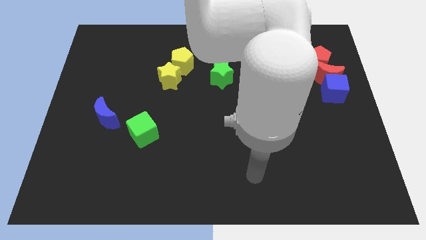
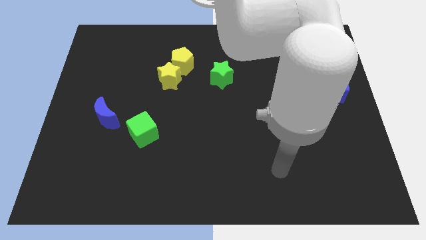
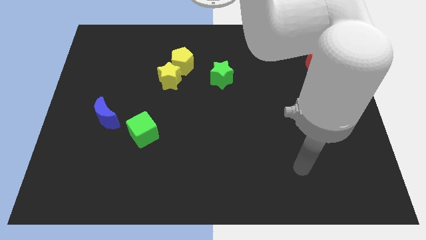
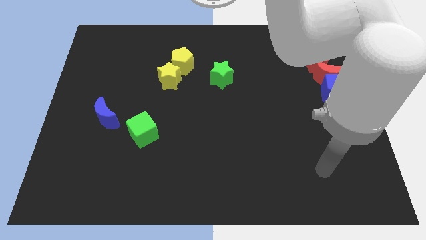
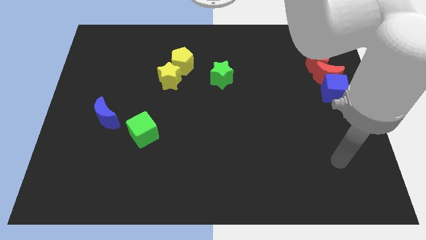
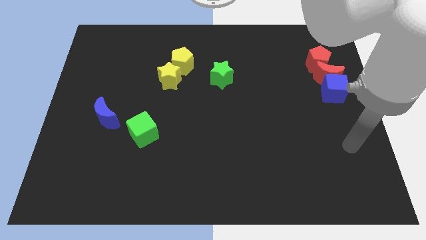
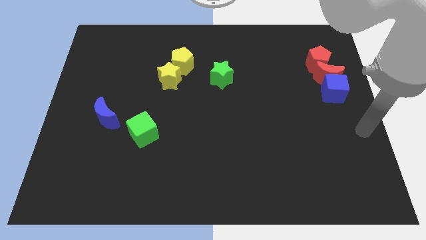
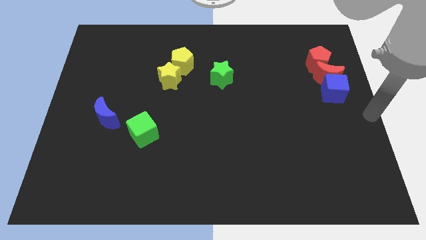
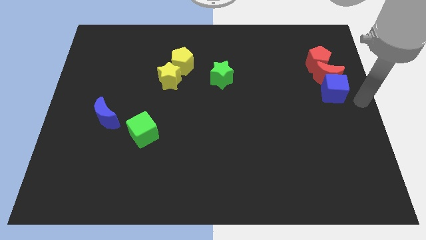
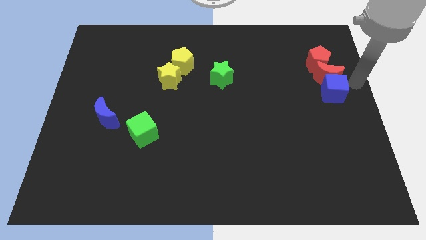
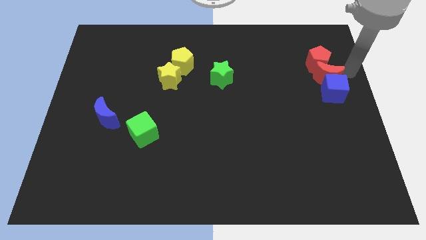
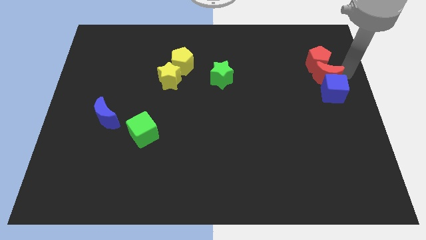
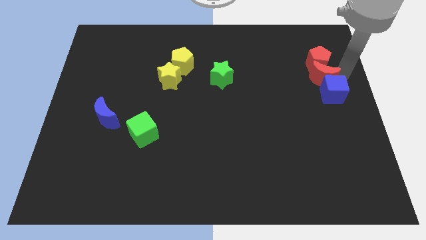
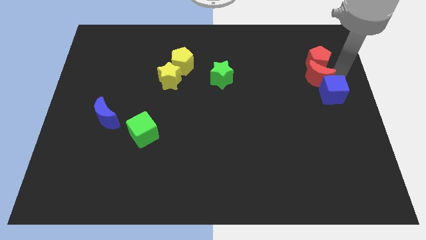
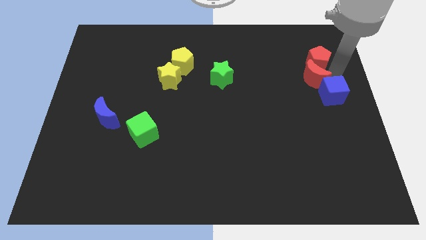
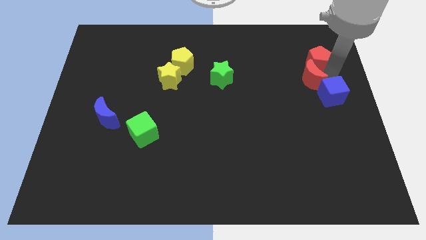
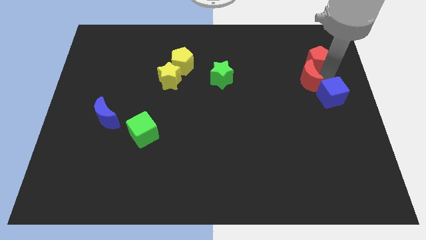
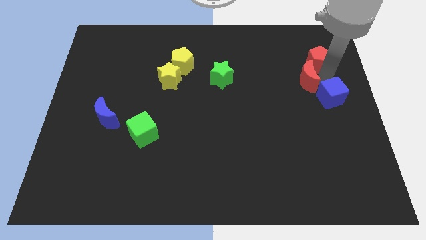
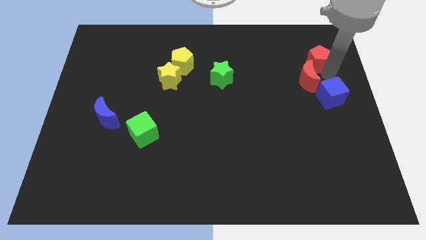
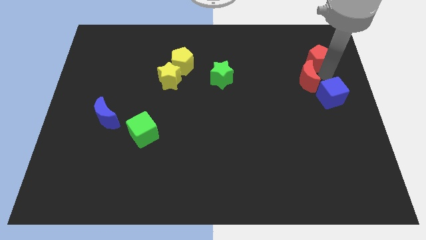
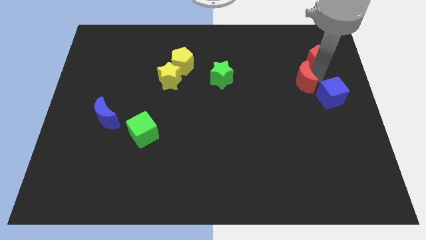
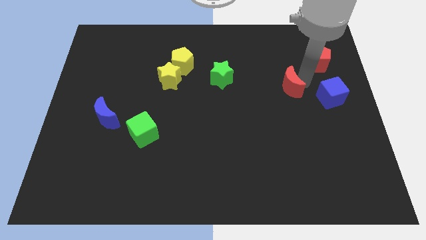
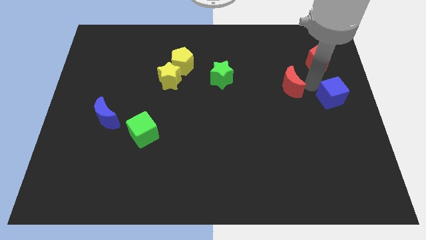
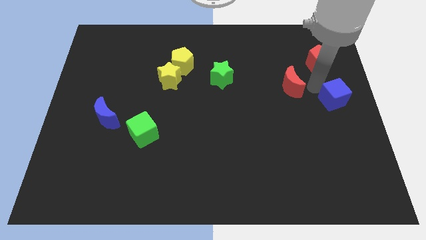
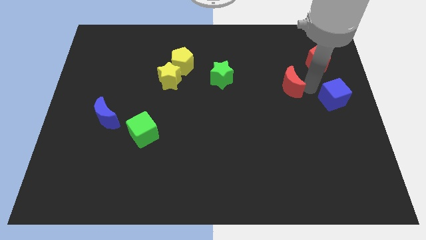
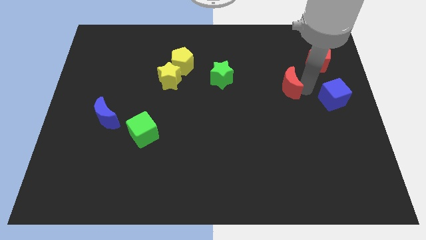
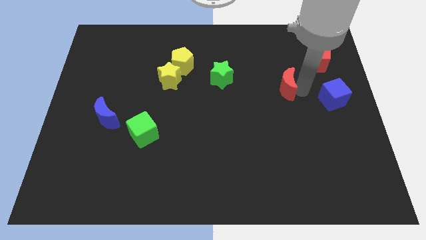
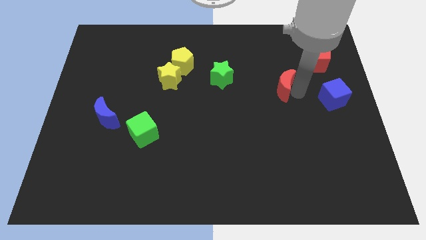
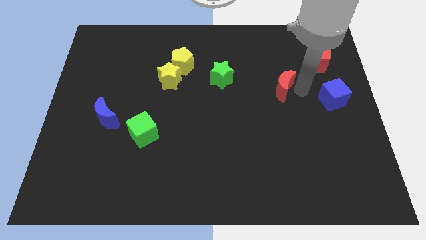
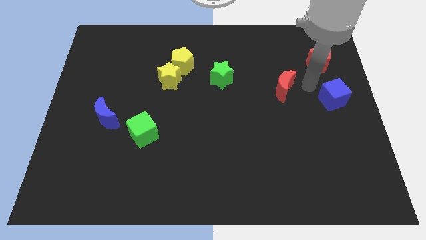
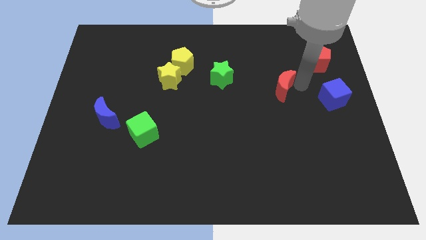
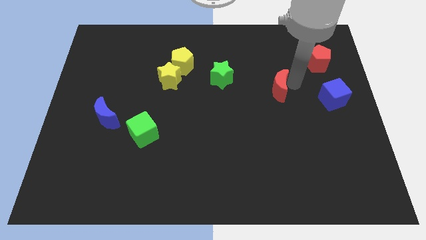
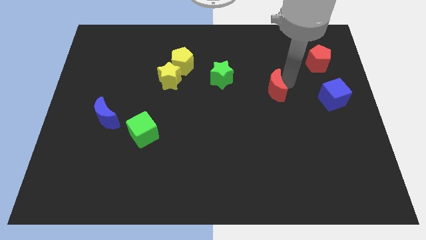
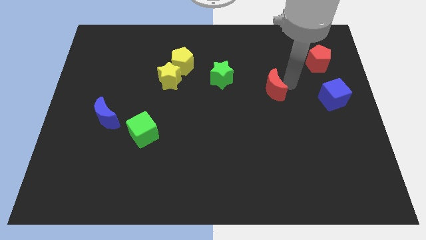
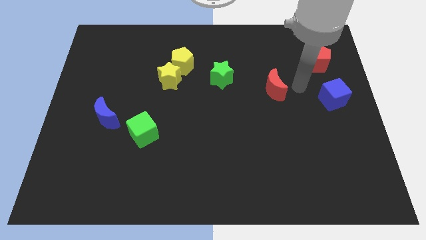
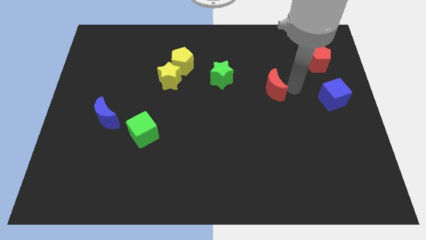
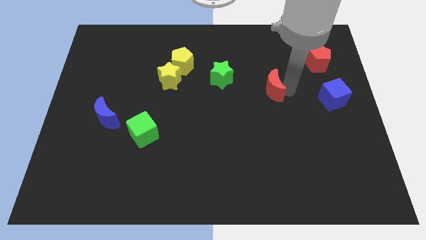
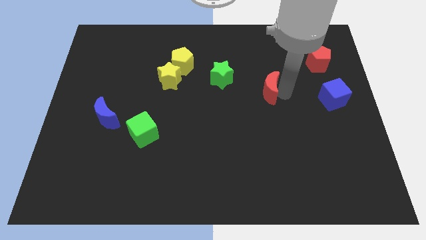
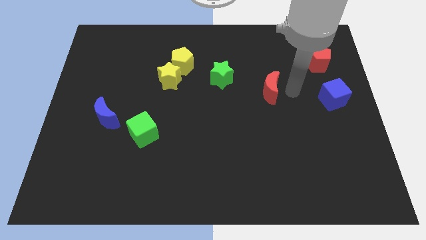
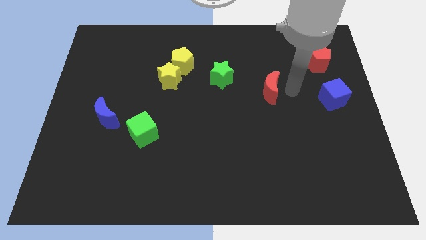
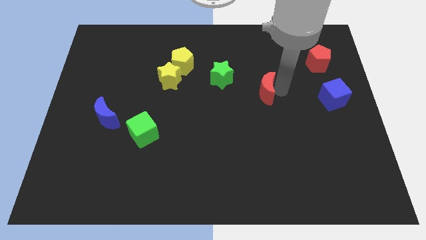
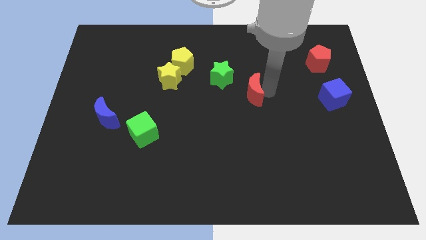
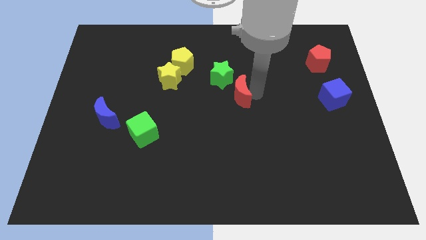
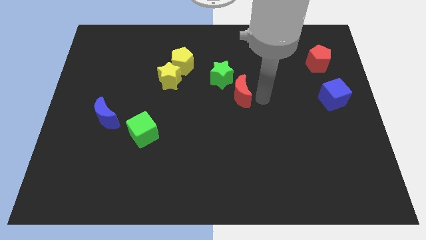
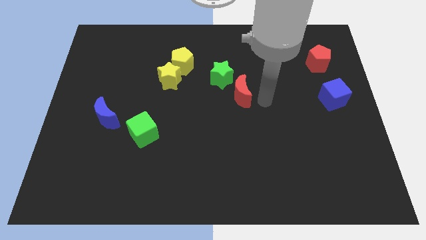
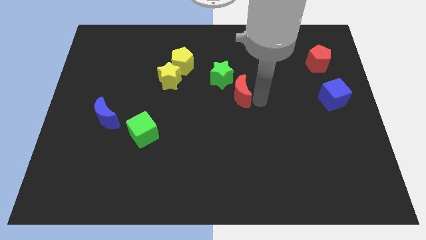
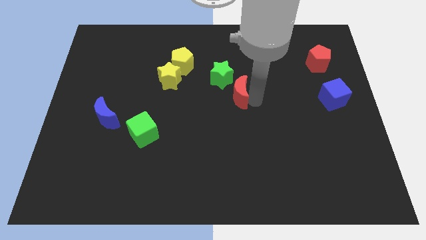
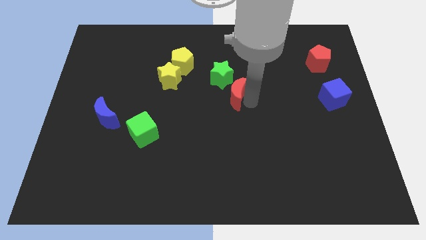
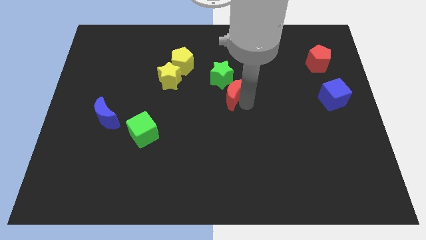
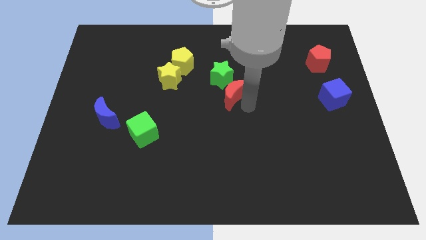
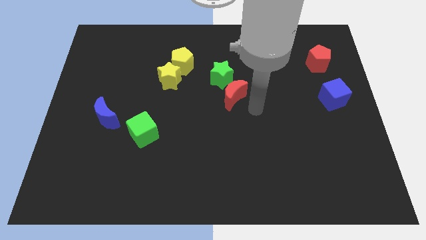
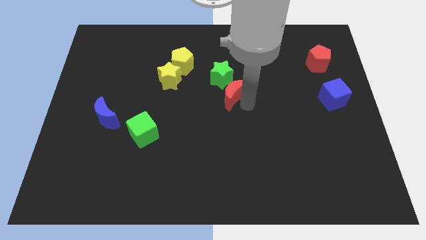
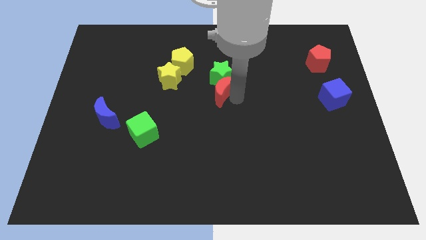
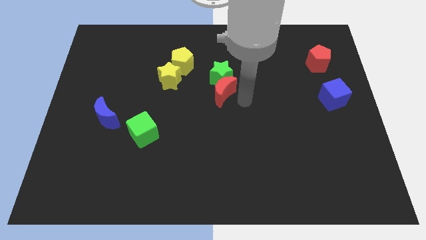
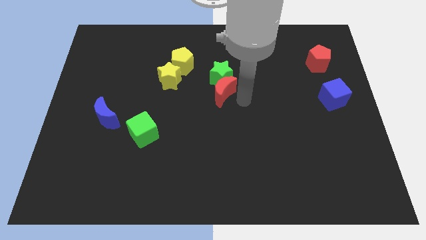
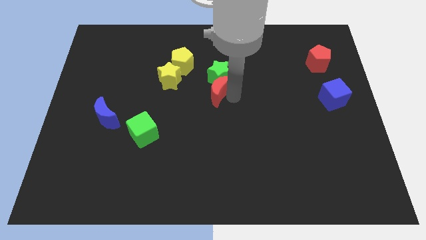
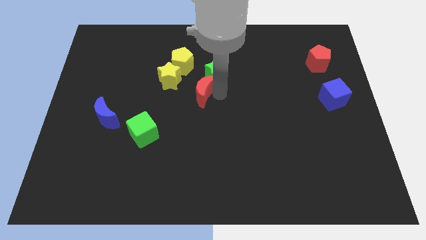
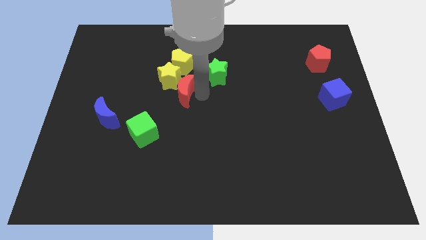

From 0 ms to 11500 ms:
slide the red moon next to the yellow star

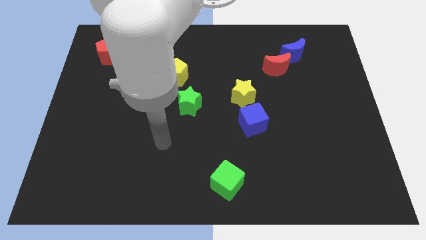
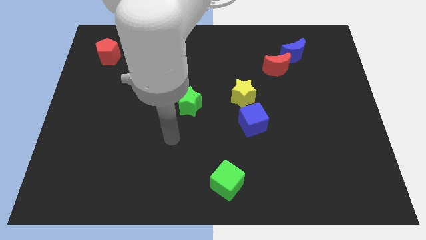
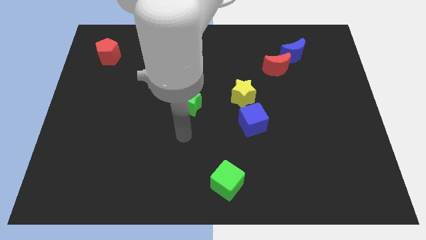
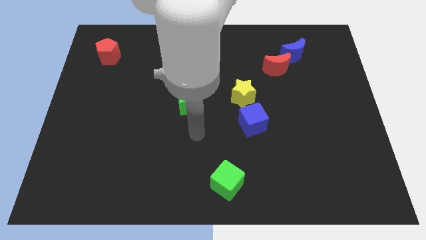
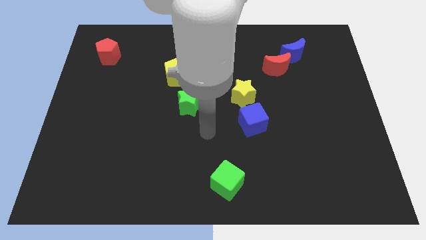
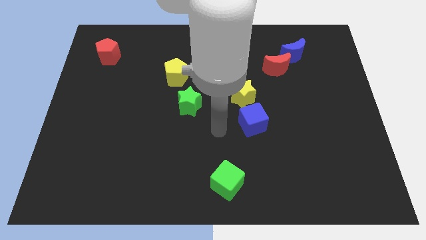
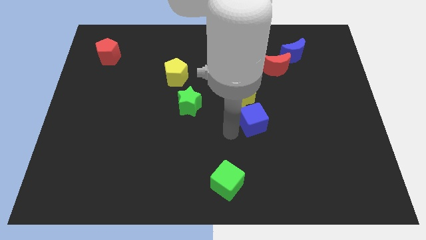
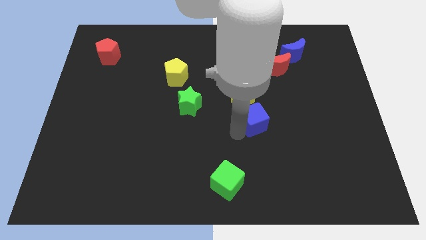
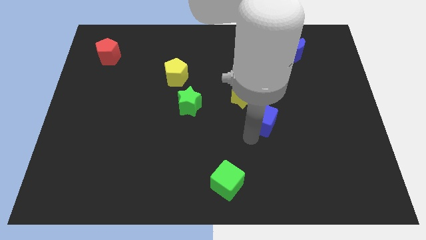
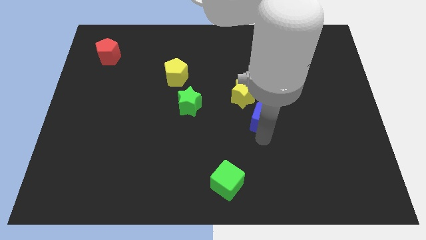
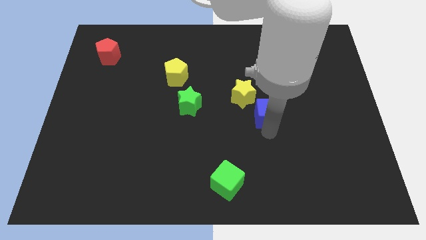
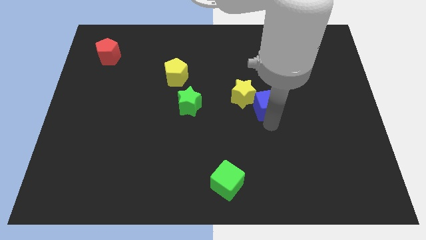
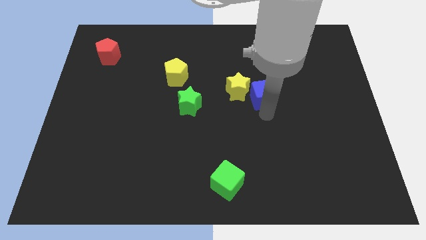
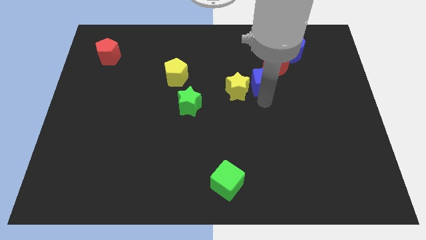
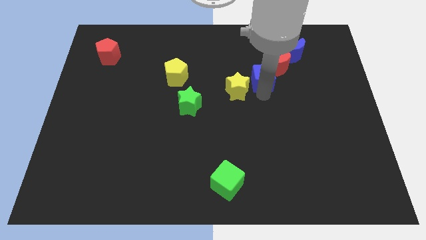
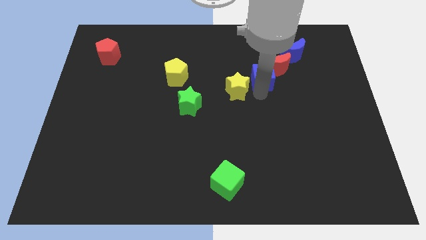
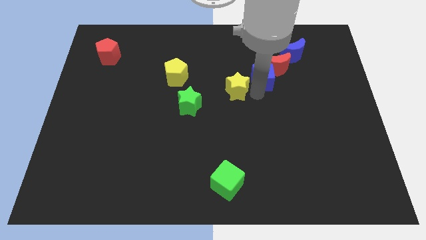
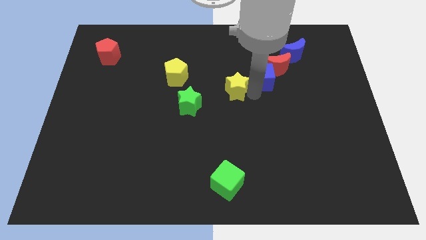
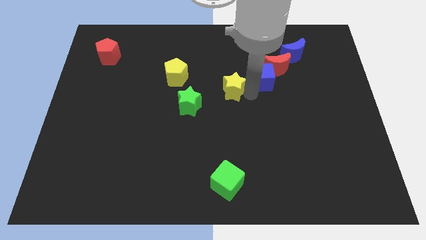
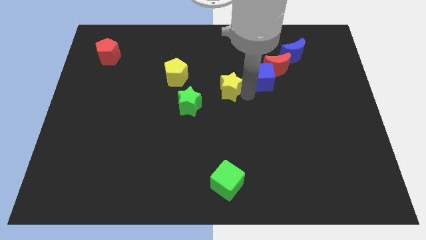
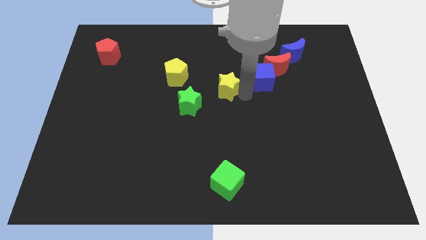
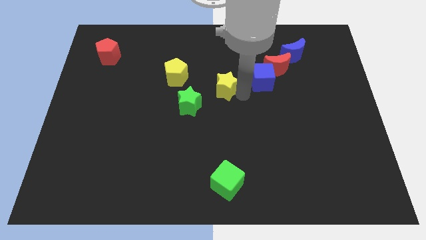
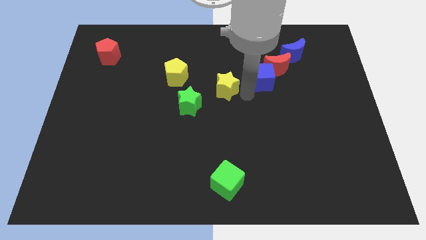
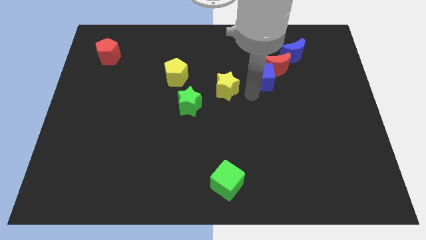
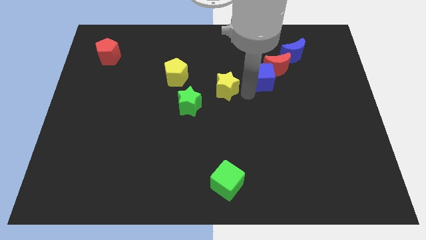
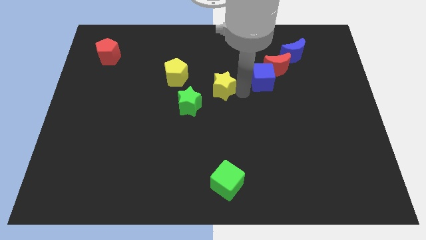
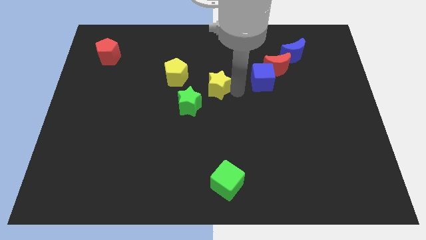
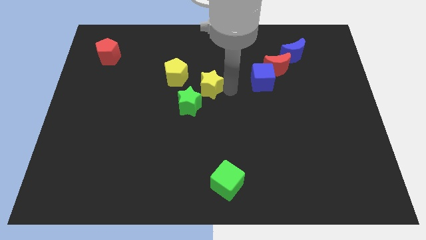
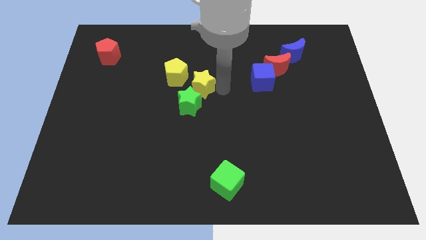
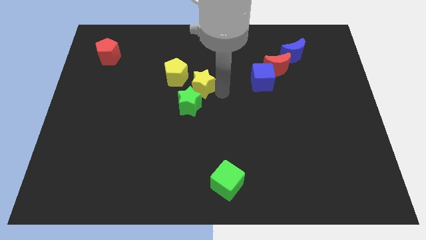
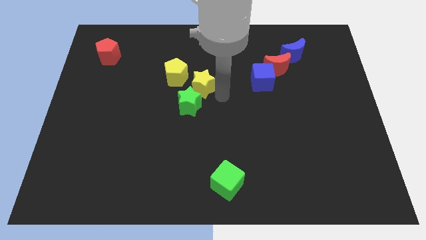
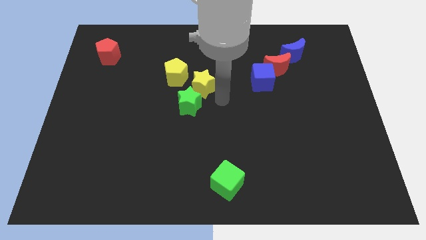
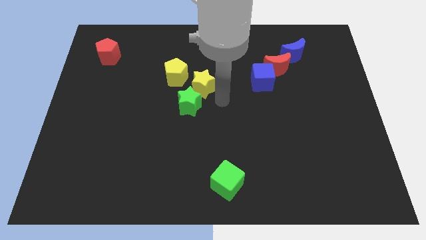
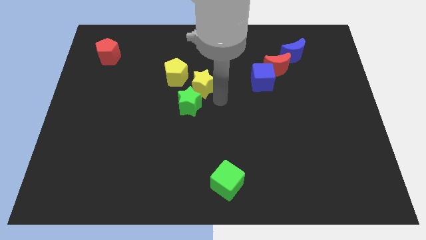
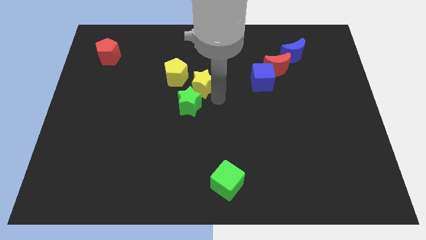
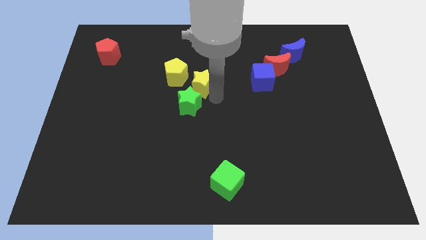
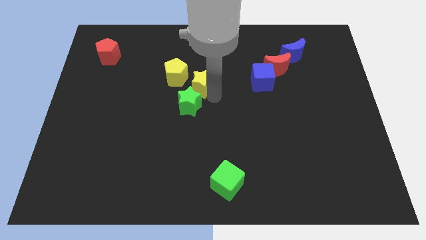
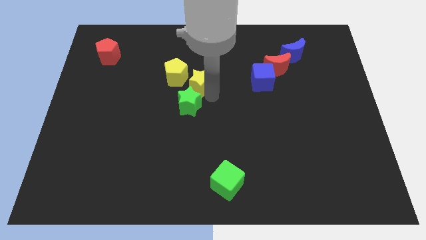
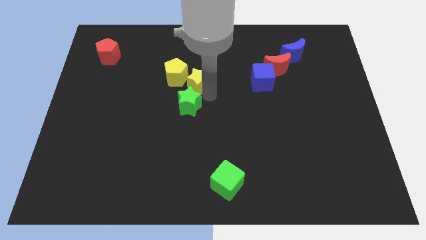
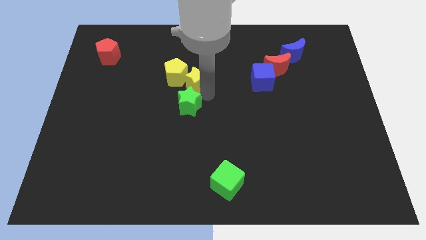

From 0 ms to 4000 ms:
put the yellow star towards the yellow pentagon
